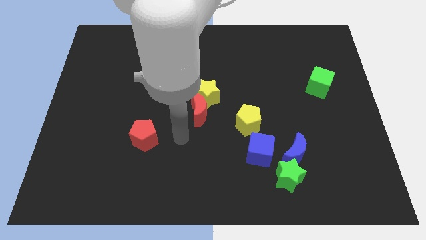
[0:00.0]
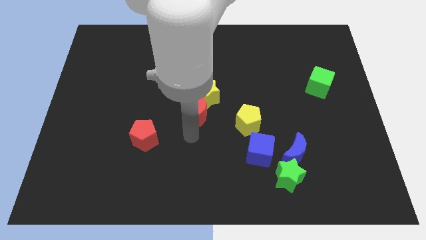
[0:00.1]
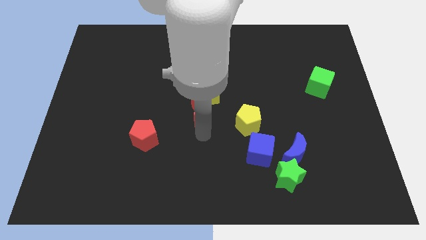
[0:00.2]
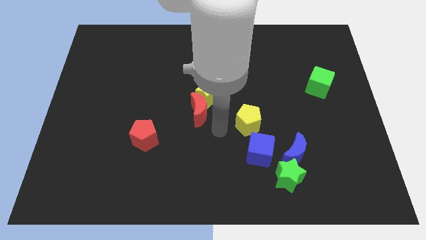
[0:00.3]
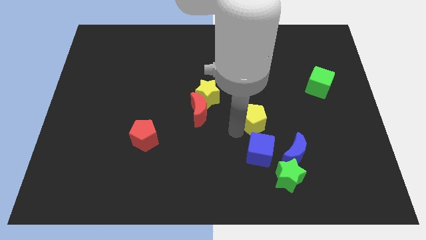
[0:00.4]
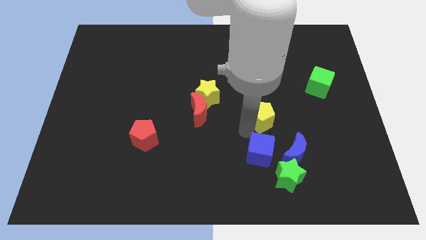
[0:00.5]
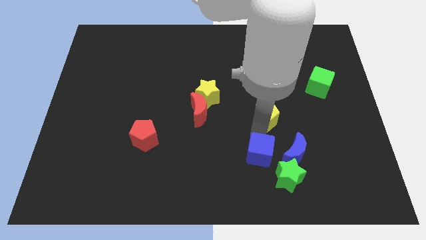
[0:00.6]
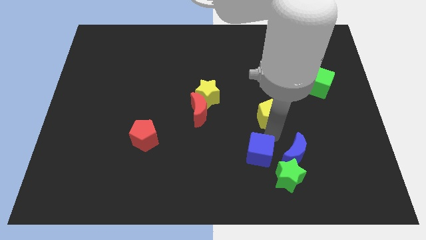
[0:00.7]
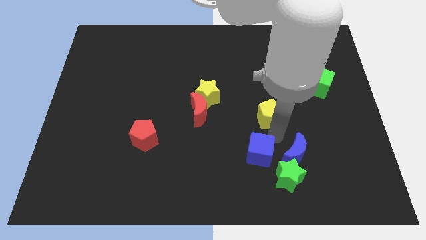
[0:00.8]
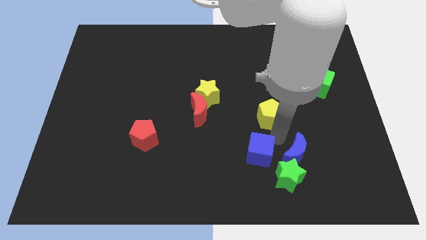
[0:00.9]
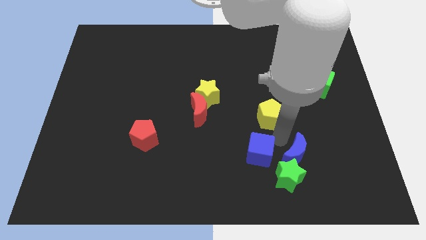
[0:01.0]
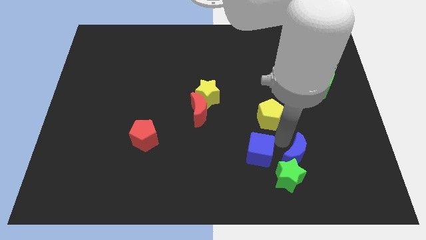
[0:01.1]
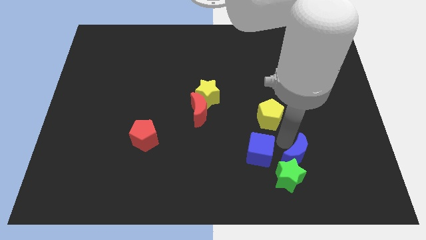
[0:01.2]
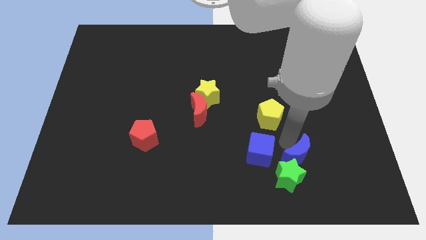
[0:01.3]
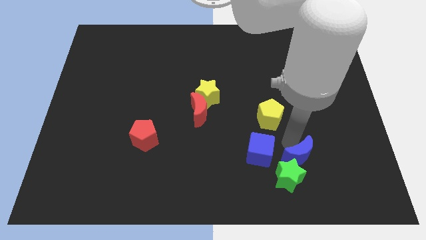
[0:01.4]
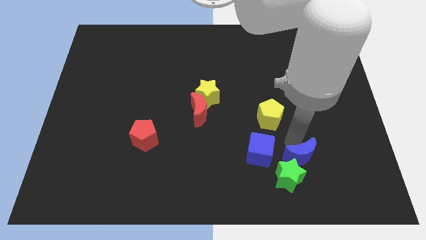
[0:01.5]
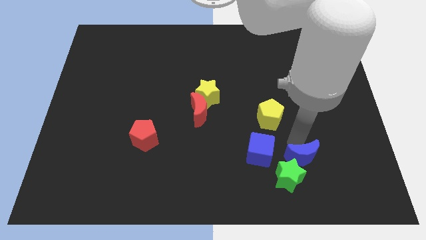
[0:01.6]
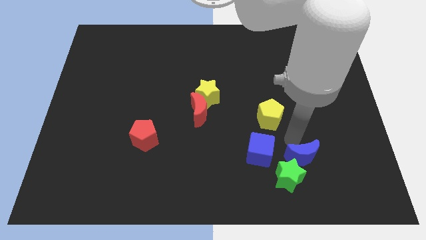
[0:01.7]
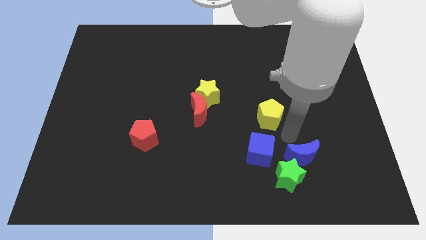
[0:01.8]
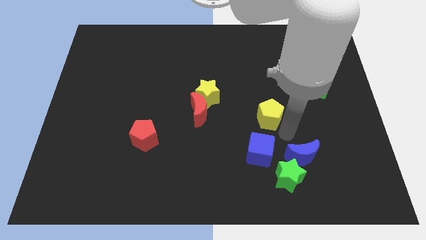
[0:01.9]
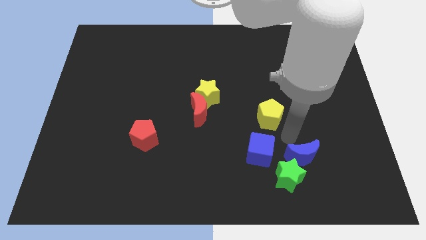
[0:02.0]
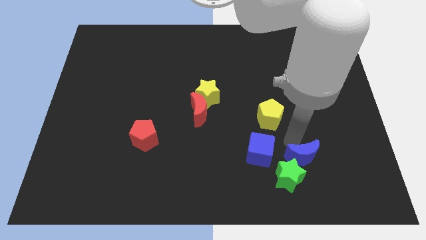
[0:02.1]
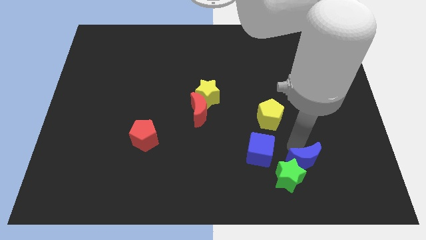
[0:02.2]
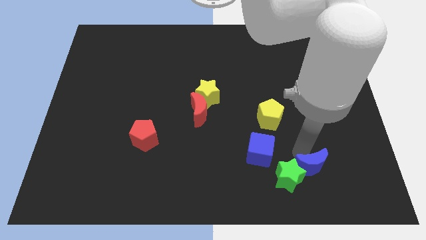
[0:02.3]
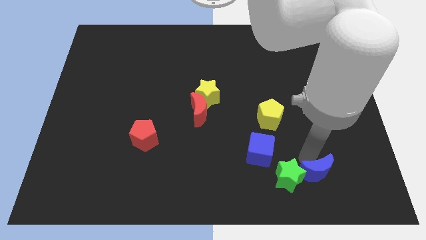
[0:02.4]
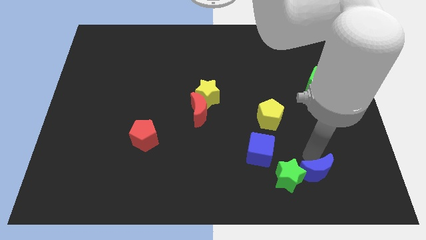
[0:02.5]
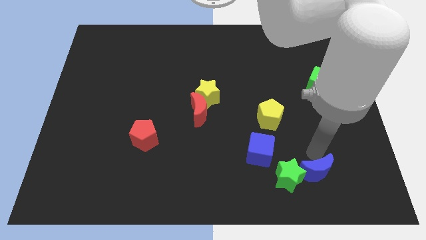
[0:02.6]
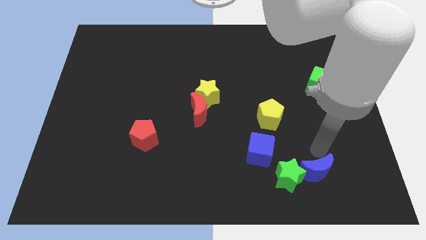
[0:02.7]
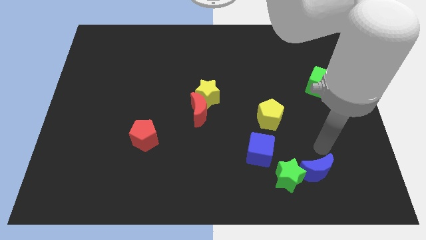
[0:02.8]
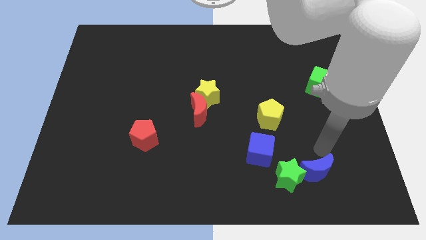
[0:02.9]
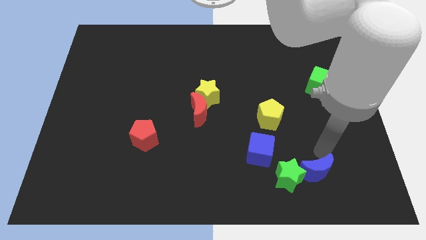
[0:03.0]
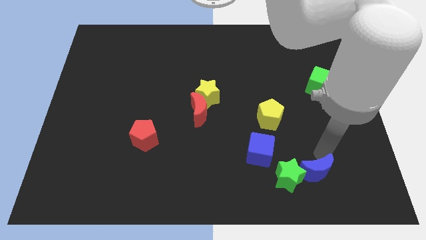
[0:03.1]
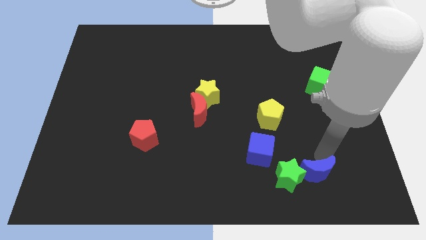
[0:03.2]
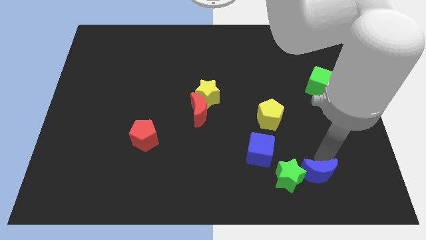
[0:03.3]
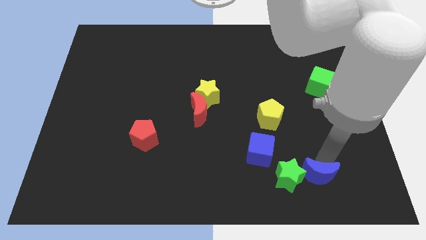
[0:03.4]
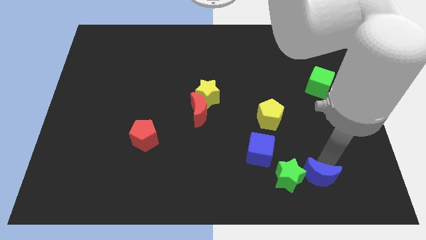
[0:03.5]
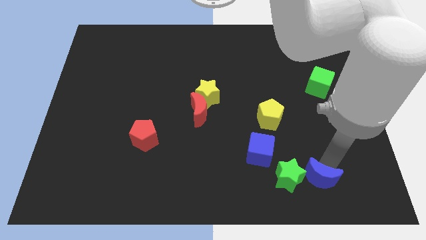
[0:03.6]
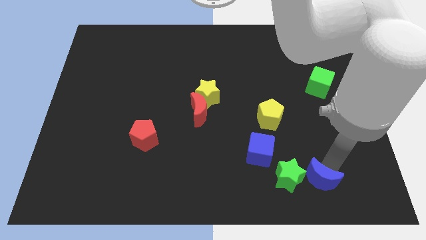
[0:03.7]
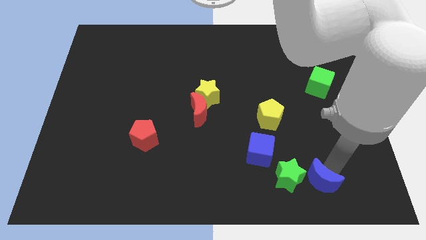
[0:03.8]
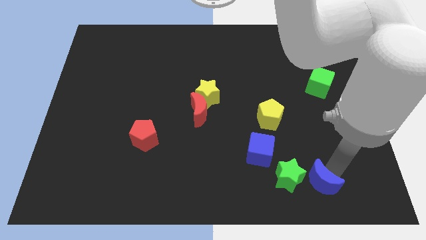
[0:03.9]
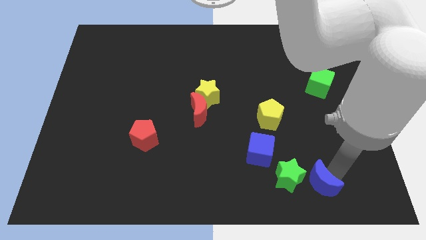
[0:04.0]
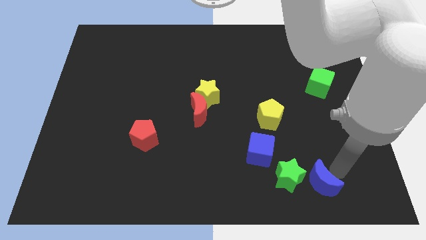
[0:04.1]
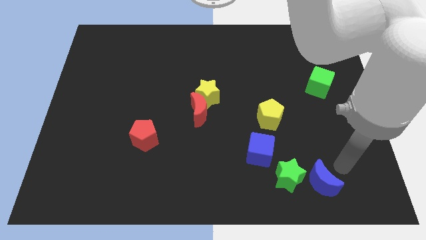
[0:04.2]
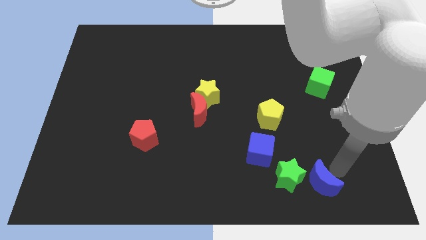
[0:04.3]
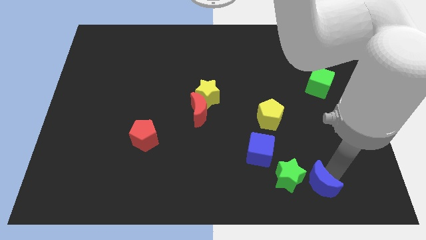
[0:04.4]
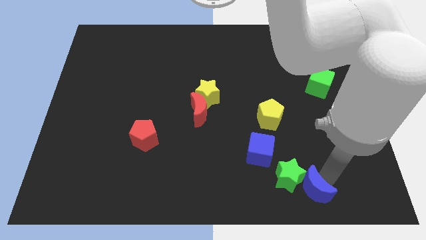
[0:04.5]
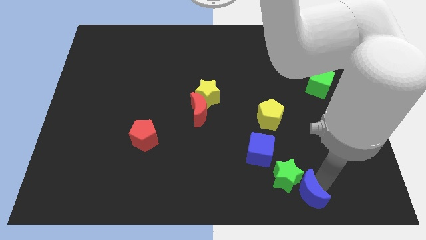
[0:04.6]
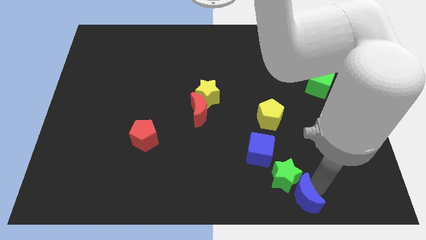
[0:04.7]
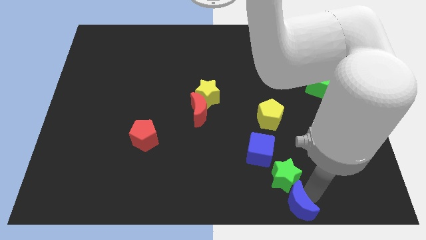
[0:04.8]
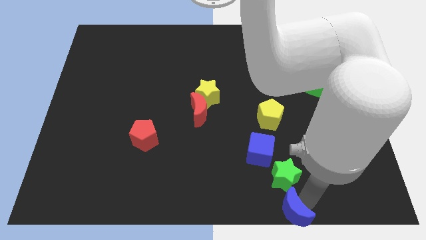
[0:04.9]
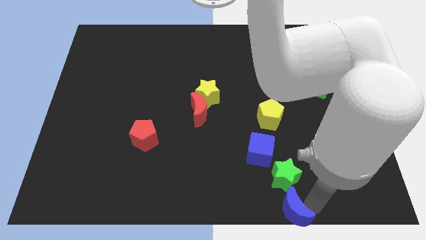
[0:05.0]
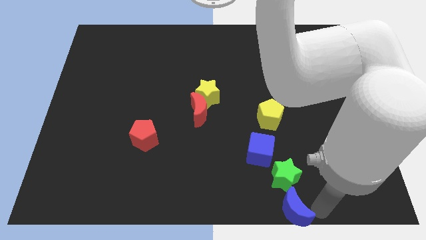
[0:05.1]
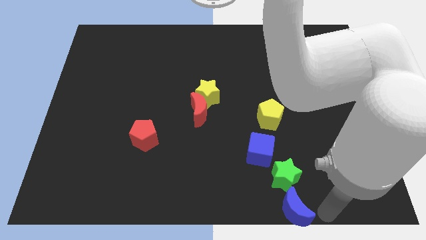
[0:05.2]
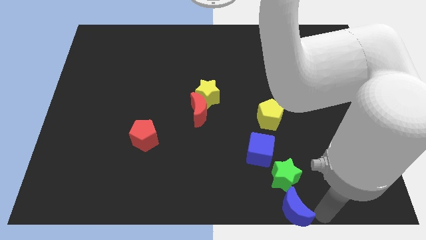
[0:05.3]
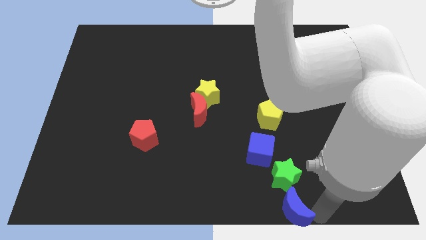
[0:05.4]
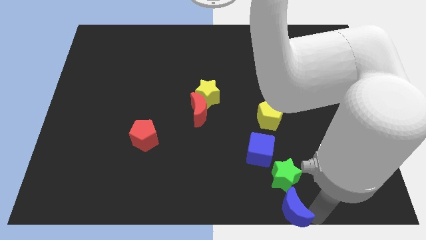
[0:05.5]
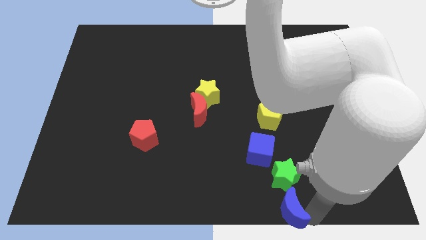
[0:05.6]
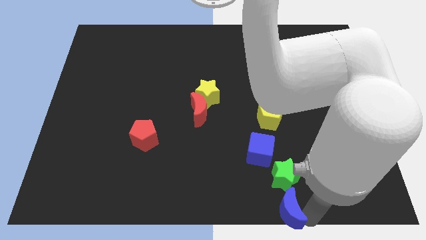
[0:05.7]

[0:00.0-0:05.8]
slide the blue moon to the bottom side
